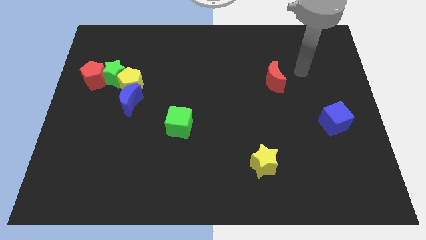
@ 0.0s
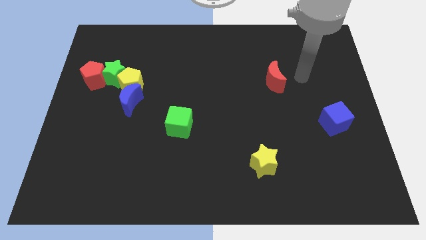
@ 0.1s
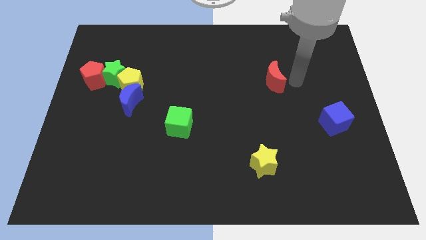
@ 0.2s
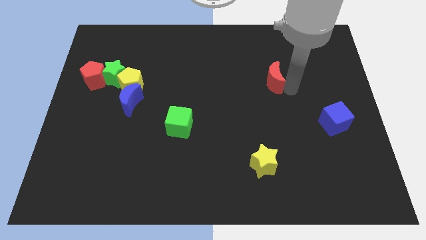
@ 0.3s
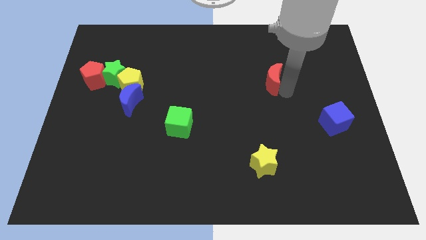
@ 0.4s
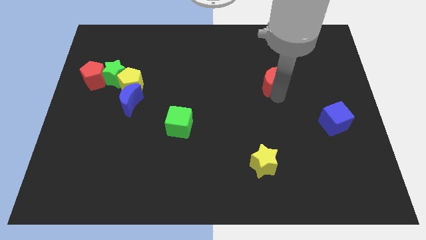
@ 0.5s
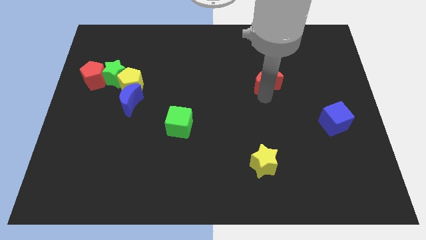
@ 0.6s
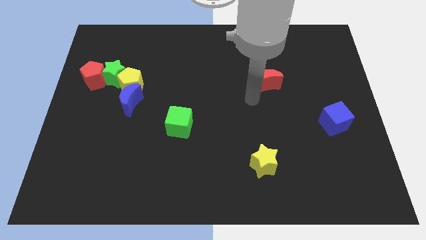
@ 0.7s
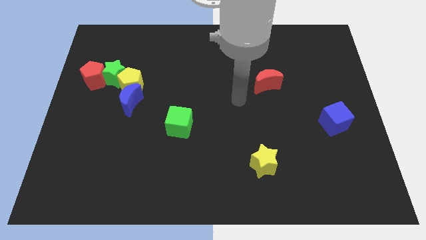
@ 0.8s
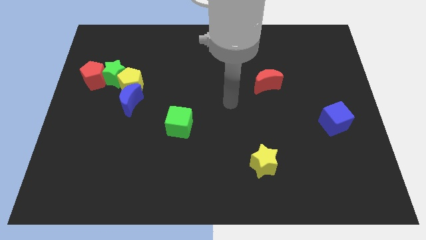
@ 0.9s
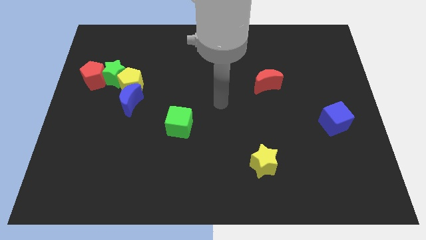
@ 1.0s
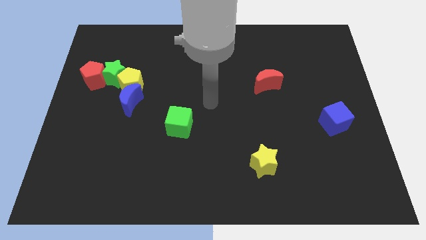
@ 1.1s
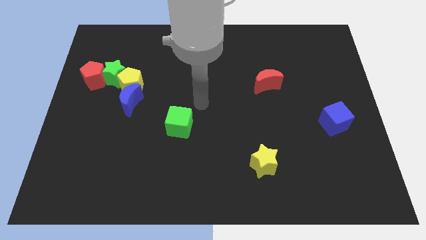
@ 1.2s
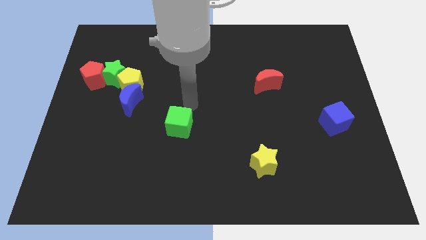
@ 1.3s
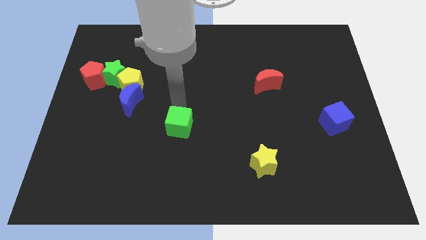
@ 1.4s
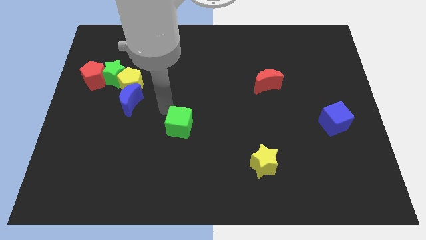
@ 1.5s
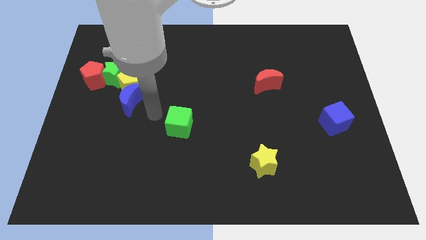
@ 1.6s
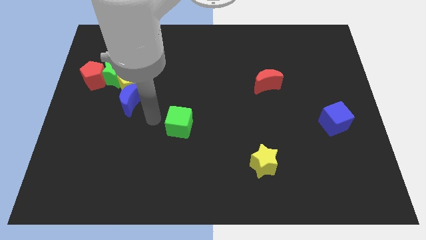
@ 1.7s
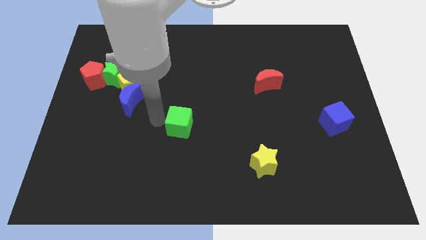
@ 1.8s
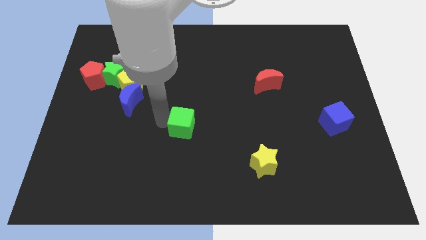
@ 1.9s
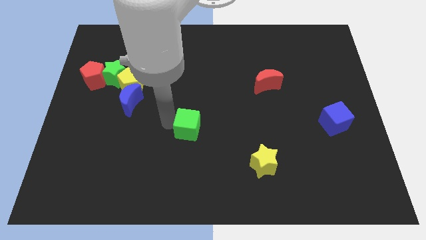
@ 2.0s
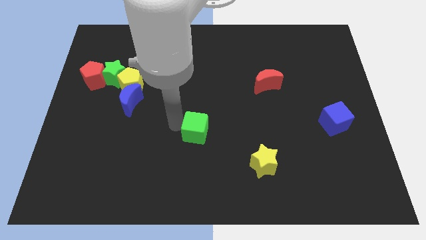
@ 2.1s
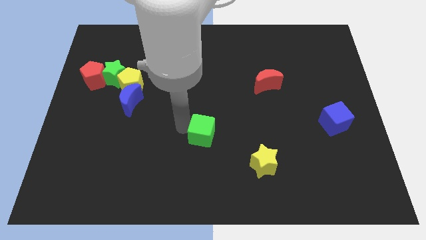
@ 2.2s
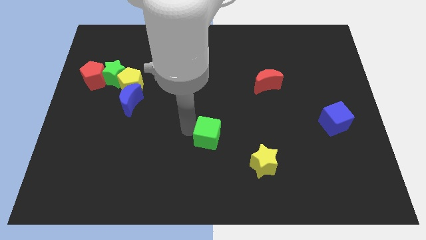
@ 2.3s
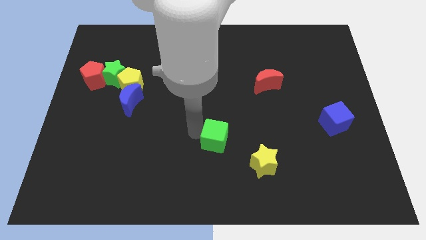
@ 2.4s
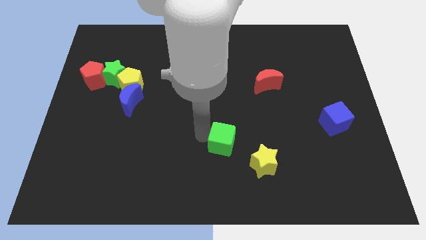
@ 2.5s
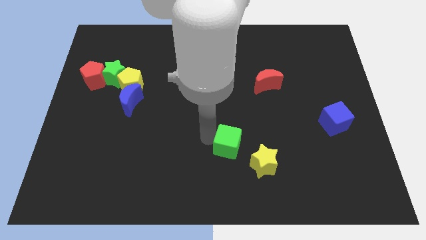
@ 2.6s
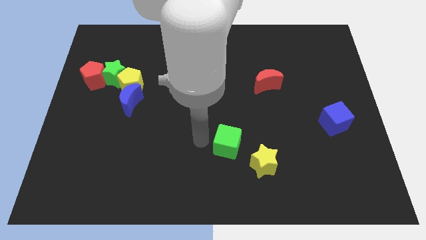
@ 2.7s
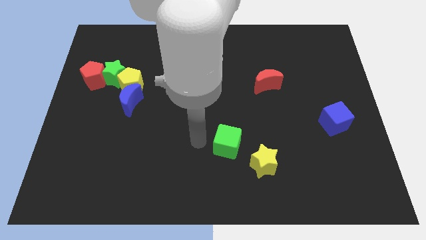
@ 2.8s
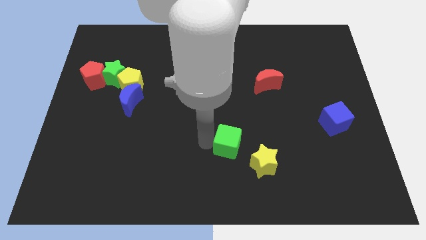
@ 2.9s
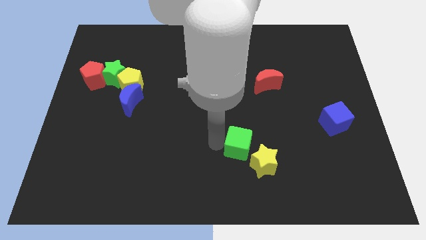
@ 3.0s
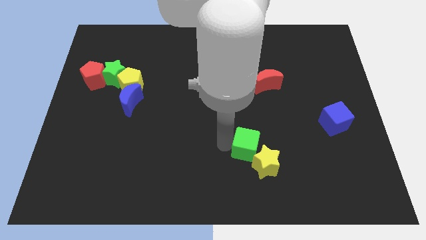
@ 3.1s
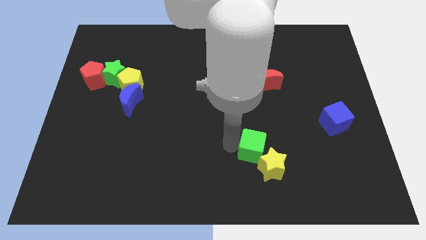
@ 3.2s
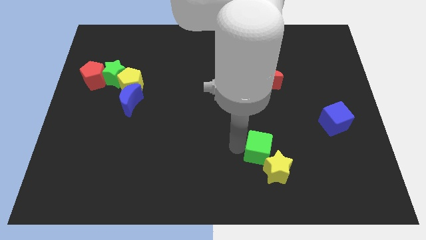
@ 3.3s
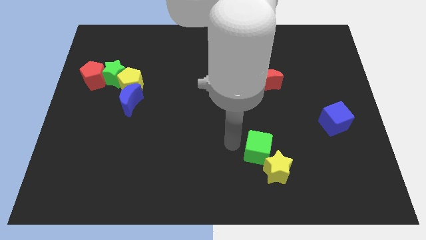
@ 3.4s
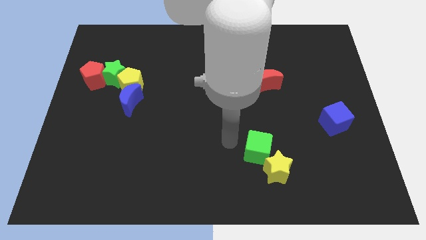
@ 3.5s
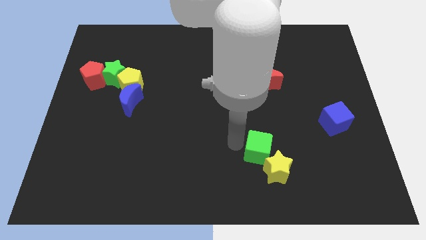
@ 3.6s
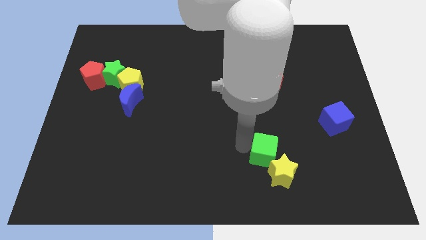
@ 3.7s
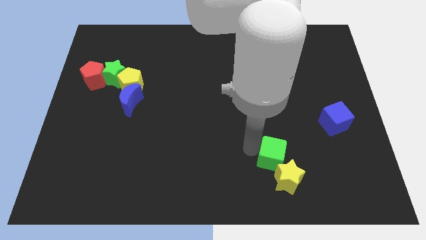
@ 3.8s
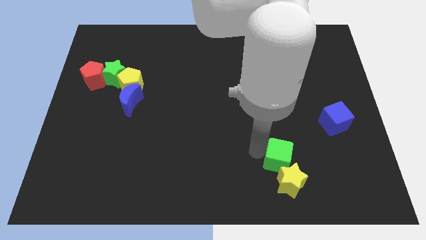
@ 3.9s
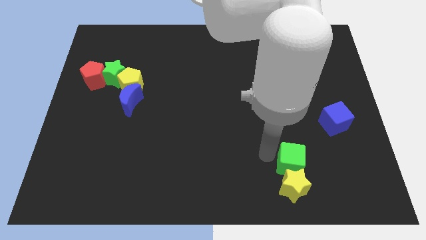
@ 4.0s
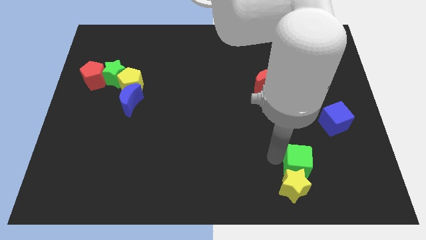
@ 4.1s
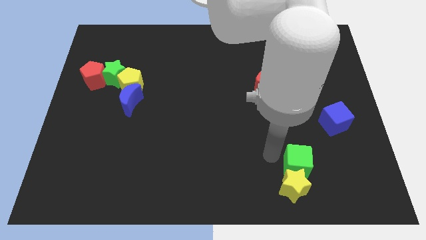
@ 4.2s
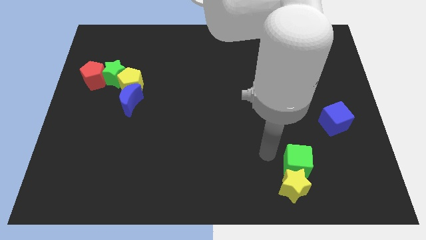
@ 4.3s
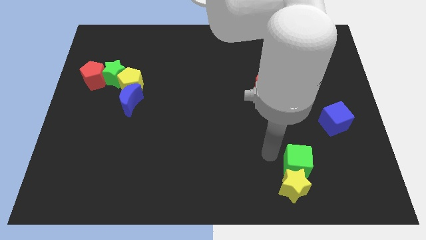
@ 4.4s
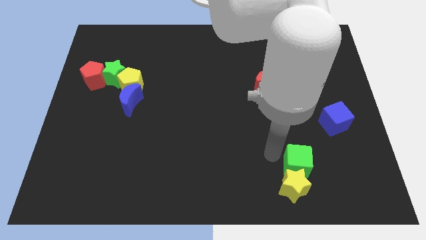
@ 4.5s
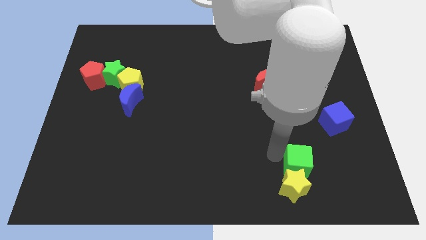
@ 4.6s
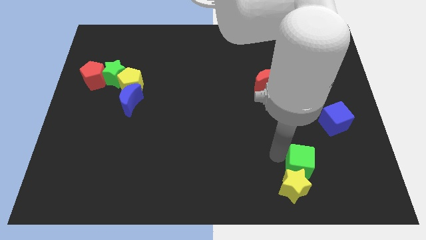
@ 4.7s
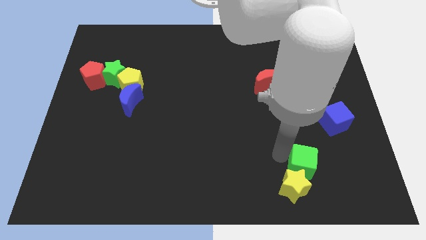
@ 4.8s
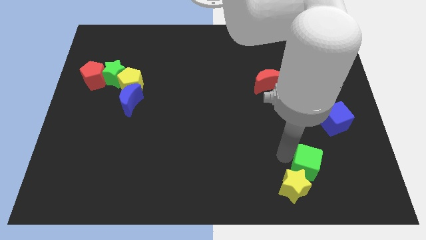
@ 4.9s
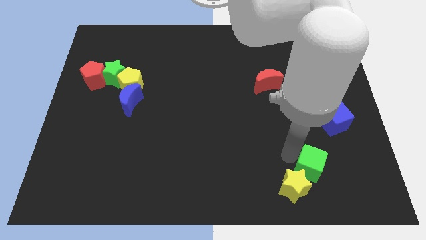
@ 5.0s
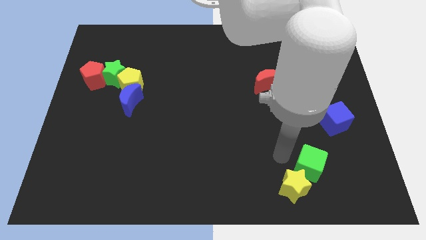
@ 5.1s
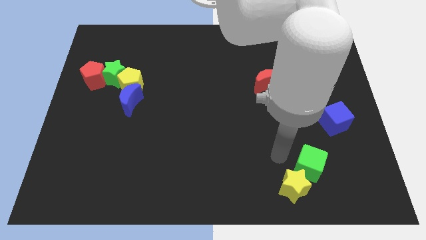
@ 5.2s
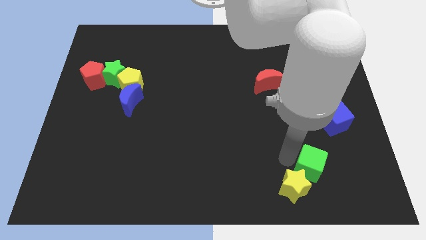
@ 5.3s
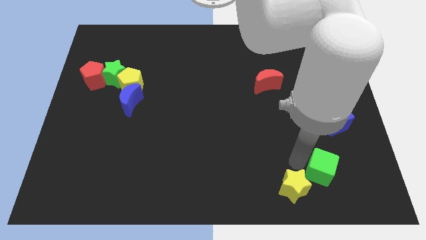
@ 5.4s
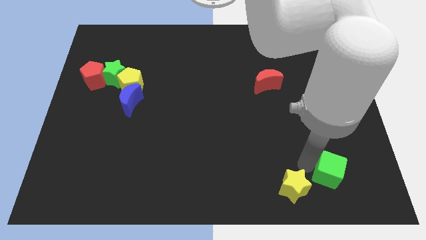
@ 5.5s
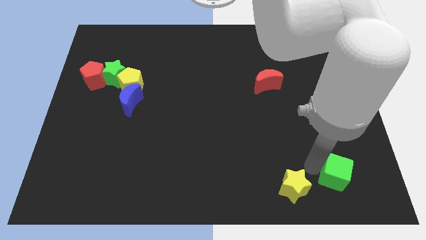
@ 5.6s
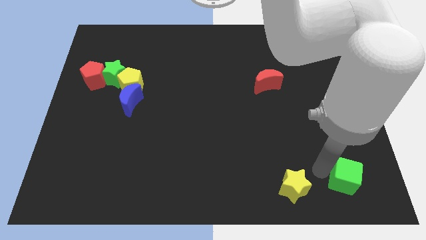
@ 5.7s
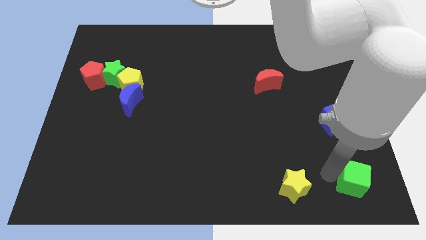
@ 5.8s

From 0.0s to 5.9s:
put the green cube to the bottom right of the board
